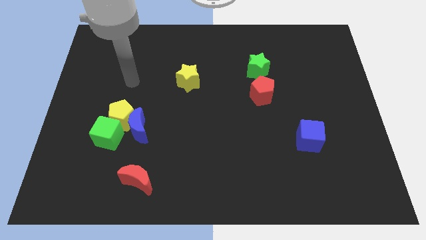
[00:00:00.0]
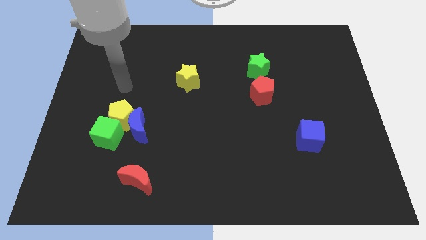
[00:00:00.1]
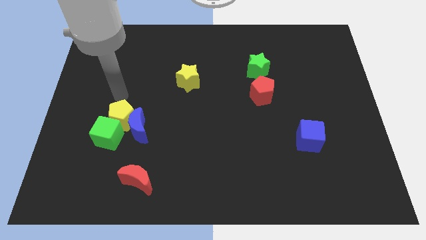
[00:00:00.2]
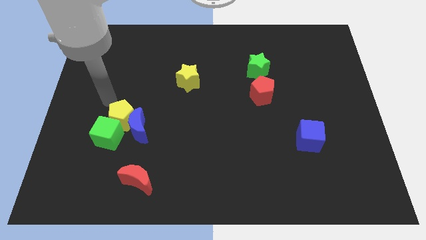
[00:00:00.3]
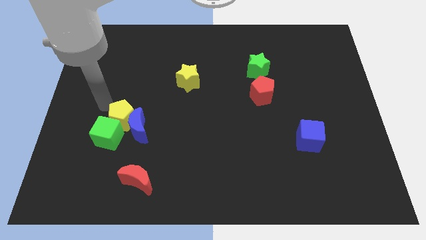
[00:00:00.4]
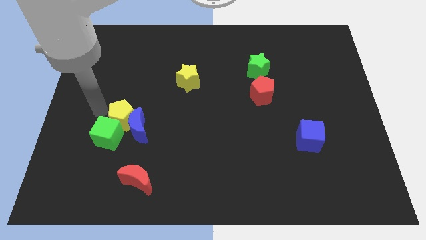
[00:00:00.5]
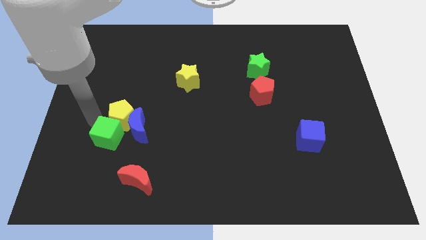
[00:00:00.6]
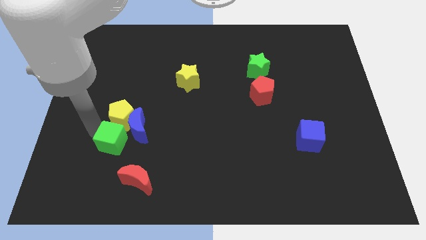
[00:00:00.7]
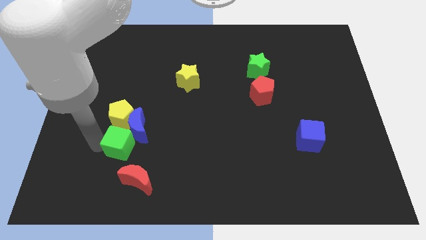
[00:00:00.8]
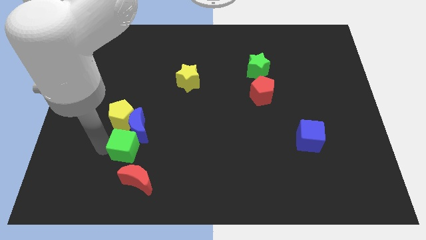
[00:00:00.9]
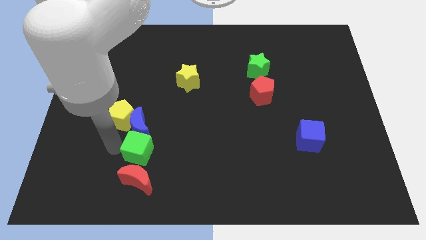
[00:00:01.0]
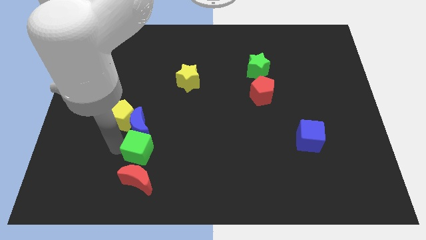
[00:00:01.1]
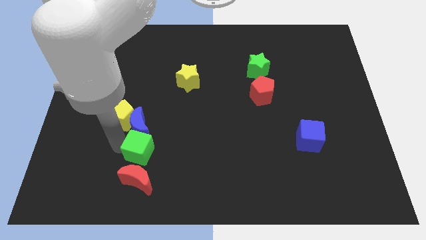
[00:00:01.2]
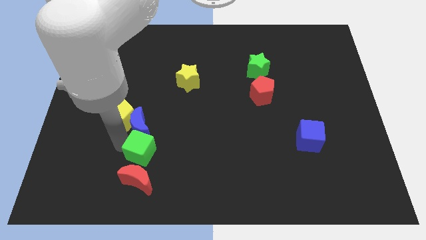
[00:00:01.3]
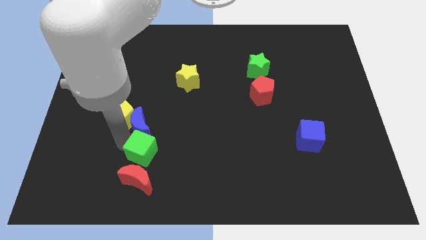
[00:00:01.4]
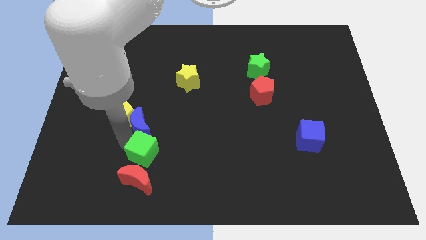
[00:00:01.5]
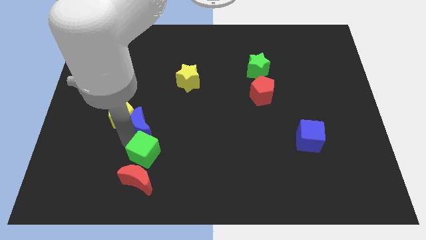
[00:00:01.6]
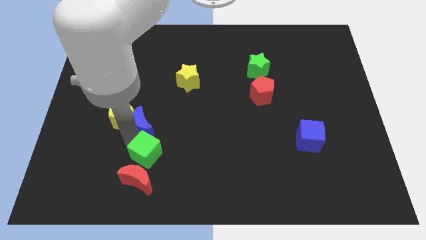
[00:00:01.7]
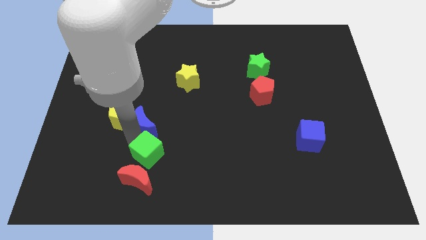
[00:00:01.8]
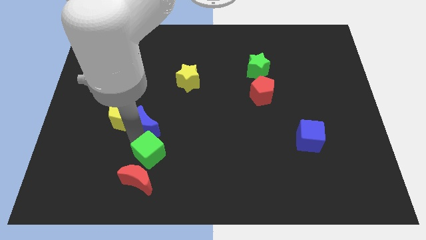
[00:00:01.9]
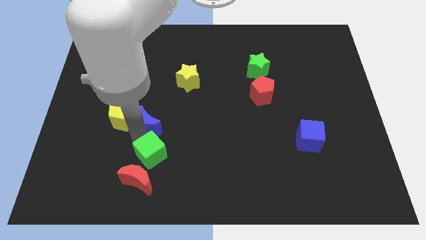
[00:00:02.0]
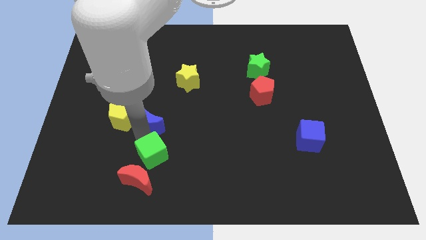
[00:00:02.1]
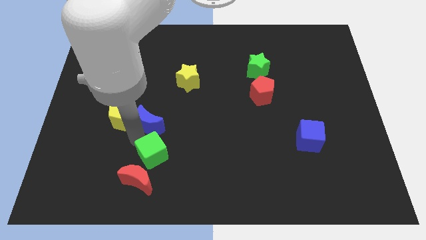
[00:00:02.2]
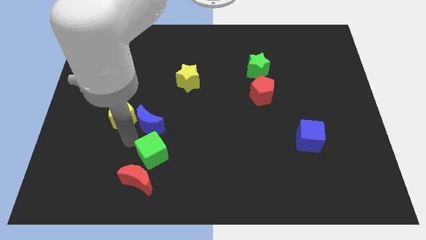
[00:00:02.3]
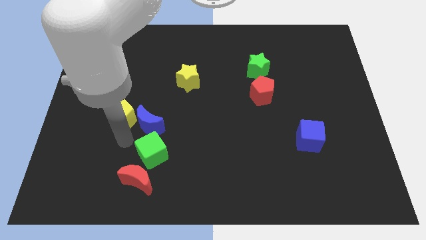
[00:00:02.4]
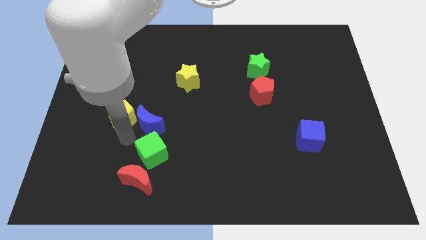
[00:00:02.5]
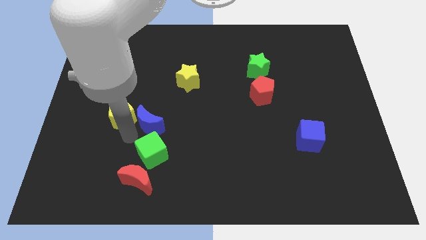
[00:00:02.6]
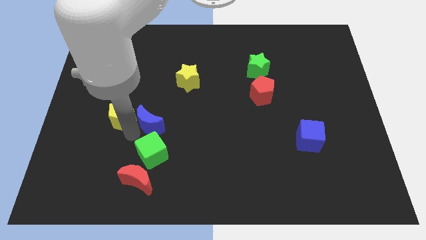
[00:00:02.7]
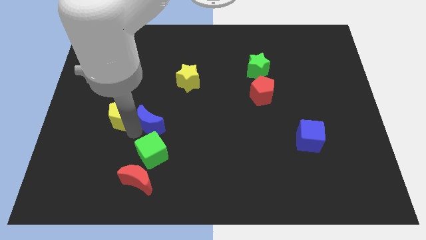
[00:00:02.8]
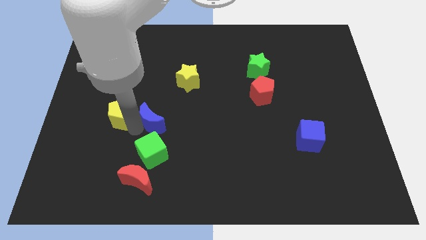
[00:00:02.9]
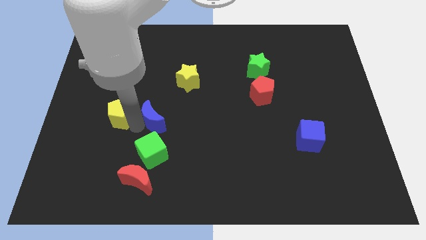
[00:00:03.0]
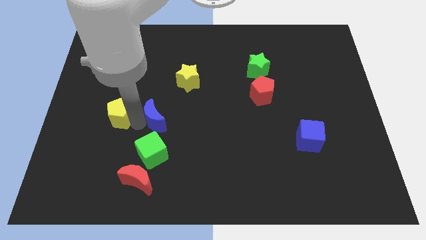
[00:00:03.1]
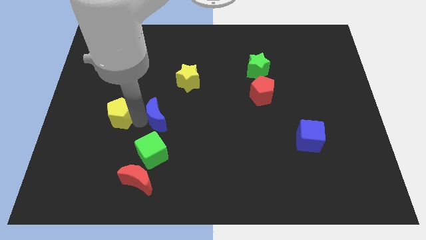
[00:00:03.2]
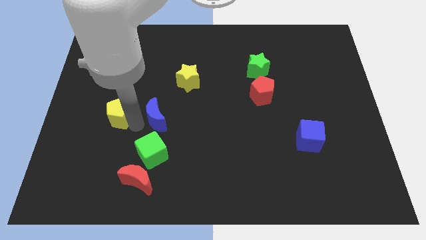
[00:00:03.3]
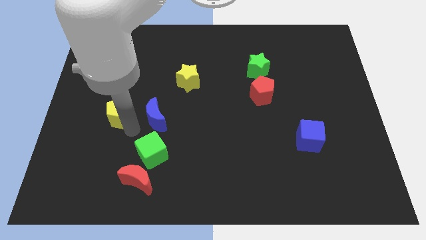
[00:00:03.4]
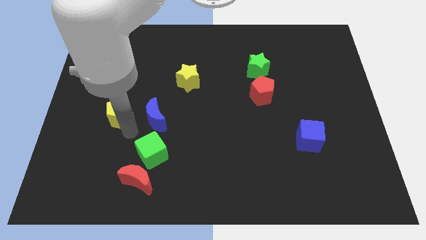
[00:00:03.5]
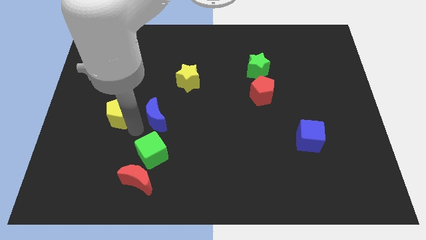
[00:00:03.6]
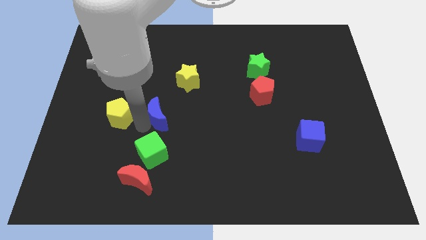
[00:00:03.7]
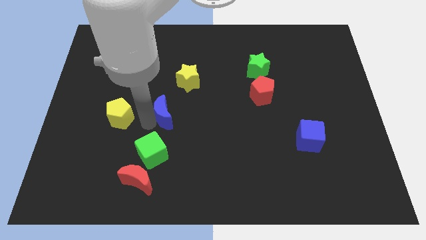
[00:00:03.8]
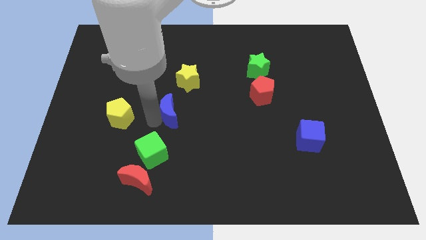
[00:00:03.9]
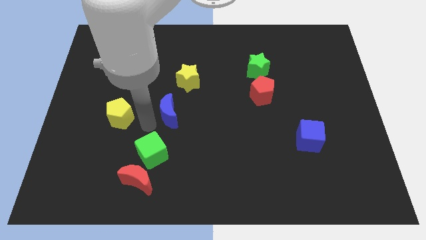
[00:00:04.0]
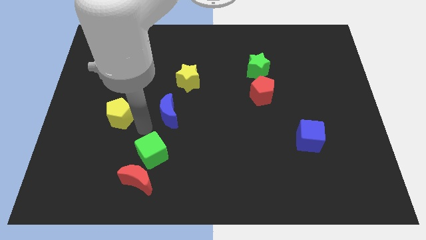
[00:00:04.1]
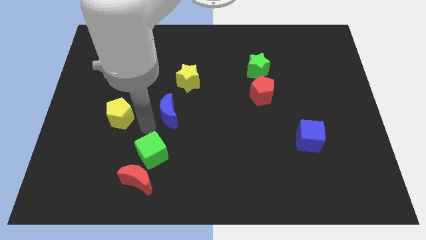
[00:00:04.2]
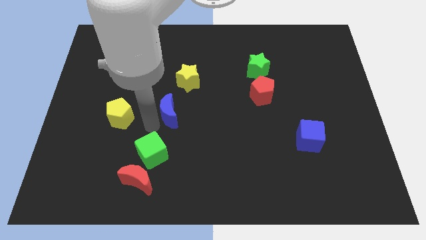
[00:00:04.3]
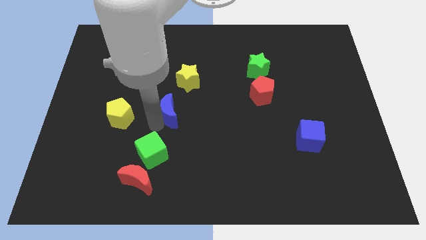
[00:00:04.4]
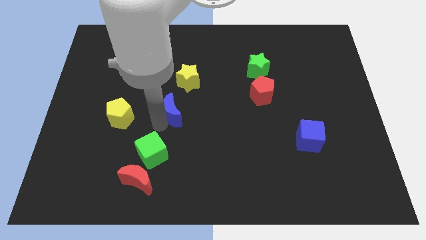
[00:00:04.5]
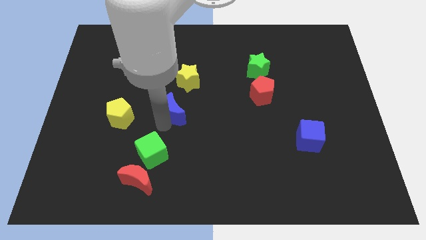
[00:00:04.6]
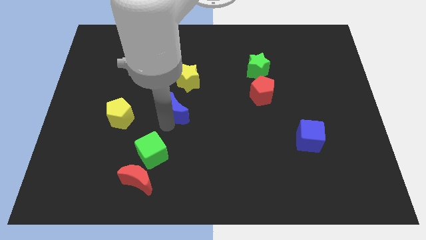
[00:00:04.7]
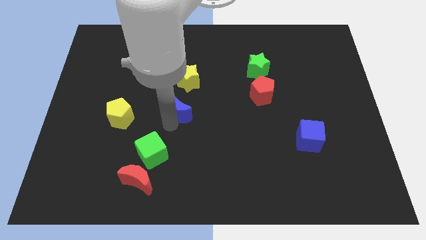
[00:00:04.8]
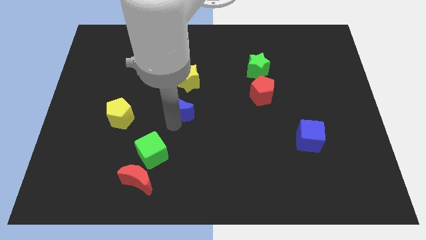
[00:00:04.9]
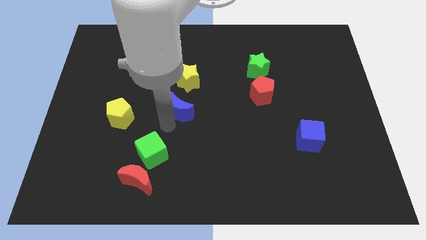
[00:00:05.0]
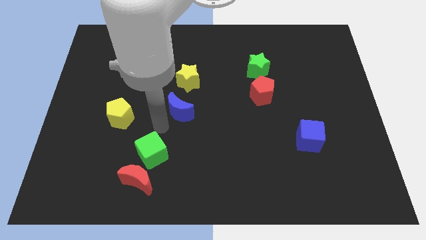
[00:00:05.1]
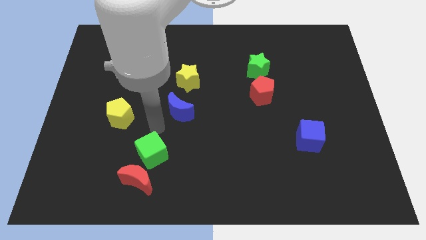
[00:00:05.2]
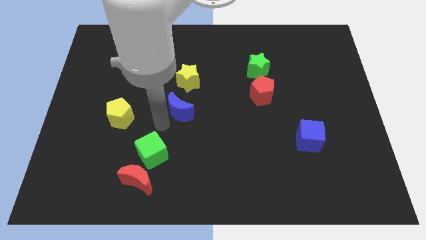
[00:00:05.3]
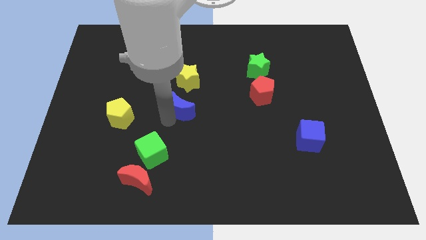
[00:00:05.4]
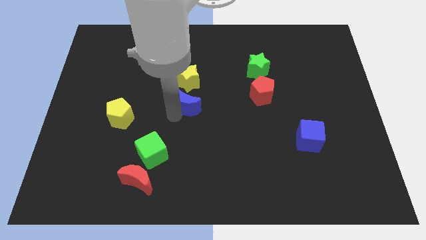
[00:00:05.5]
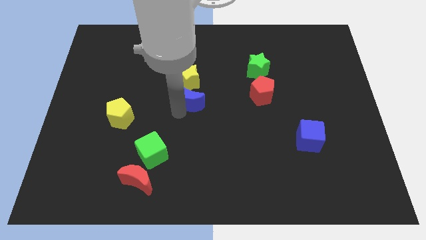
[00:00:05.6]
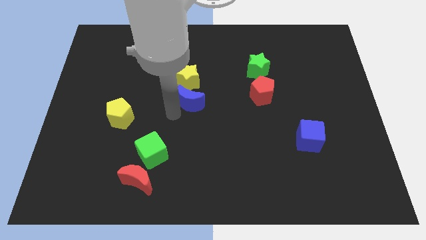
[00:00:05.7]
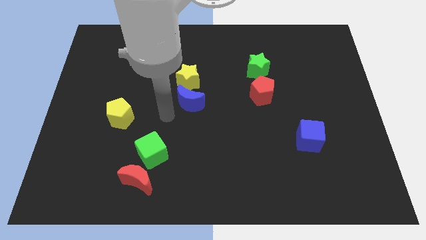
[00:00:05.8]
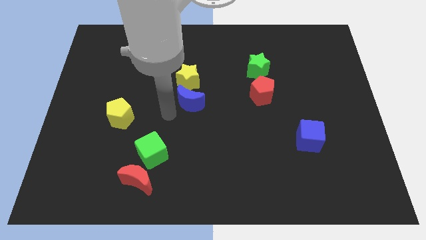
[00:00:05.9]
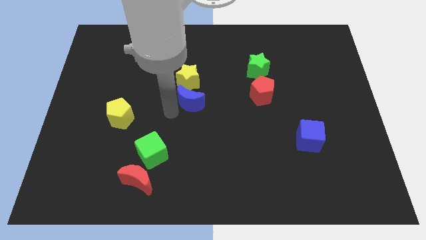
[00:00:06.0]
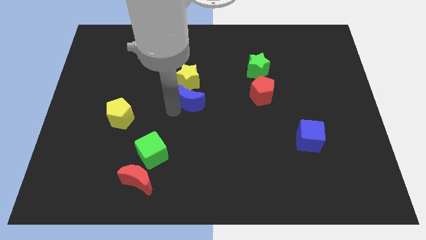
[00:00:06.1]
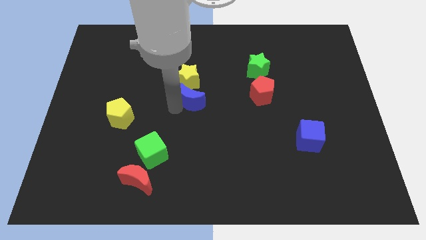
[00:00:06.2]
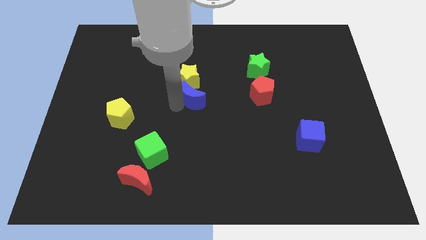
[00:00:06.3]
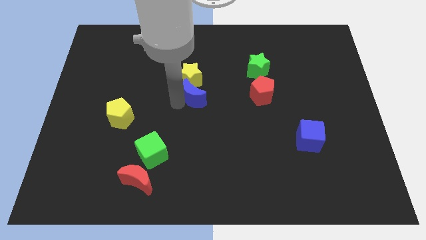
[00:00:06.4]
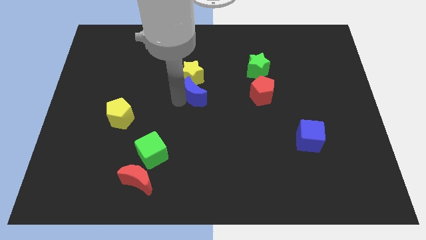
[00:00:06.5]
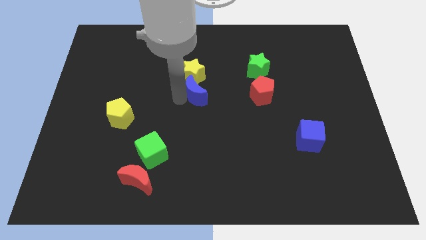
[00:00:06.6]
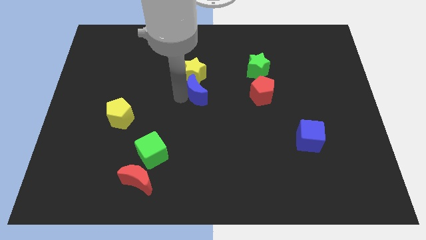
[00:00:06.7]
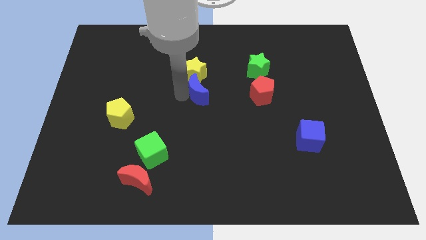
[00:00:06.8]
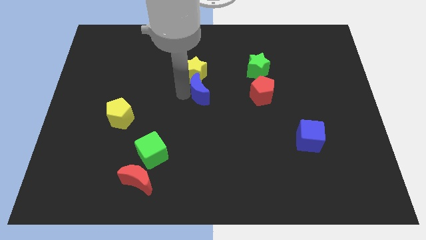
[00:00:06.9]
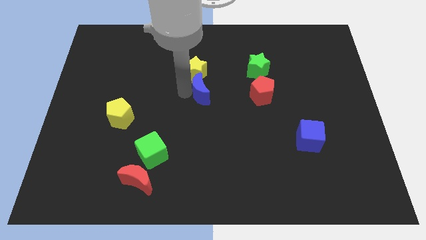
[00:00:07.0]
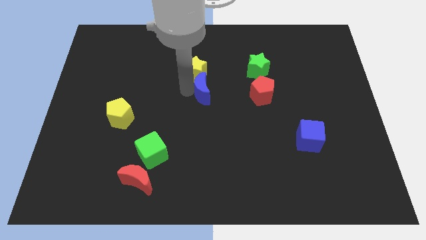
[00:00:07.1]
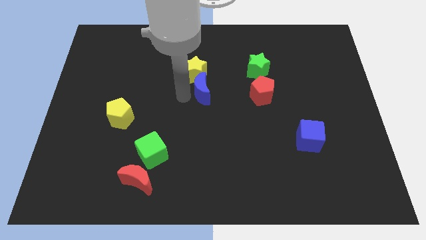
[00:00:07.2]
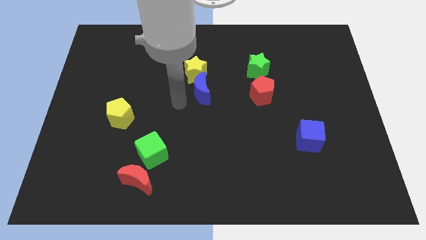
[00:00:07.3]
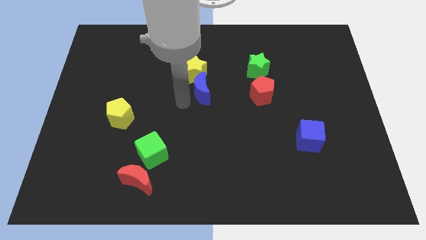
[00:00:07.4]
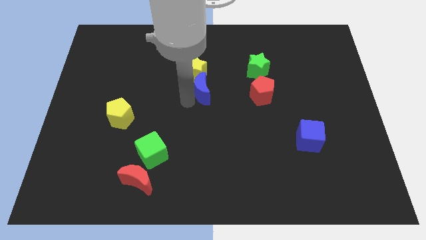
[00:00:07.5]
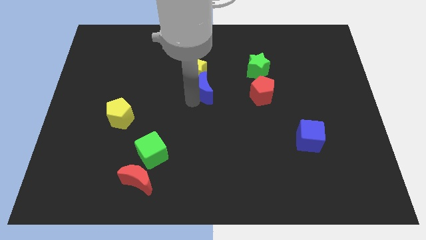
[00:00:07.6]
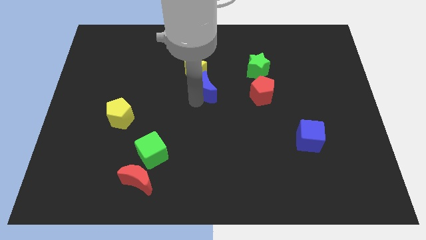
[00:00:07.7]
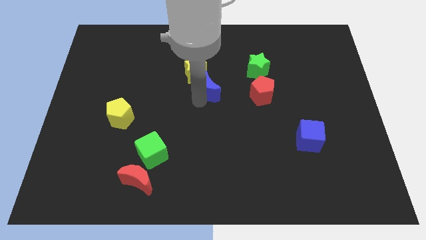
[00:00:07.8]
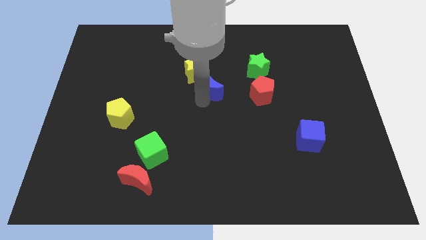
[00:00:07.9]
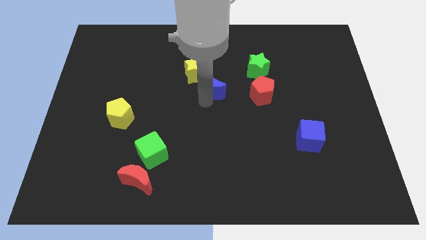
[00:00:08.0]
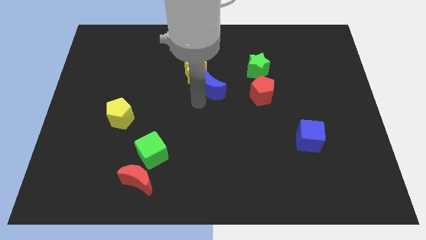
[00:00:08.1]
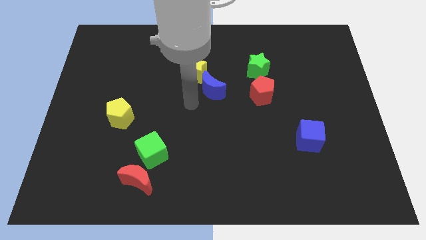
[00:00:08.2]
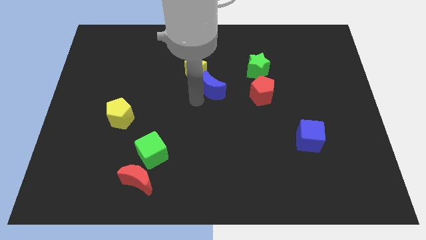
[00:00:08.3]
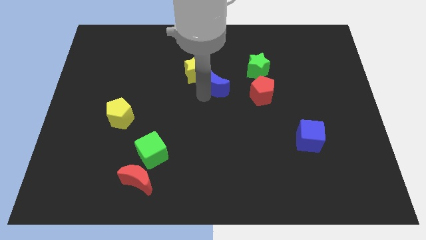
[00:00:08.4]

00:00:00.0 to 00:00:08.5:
move the blue moon just right of the yellow star
